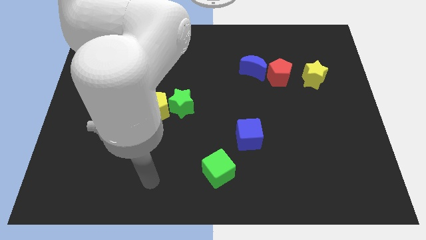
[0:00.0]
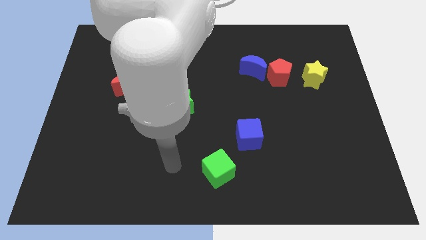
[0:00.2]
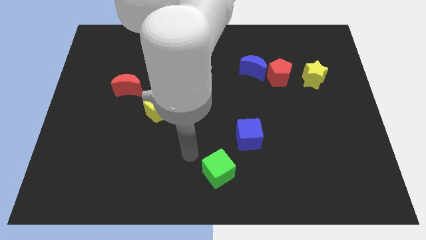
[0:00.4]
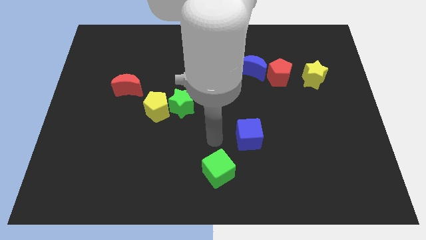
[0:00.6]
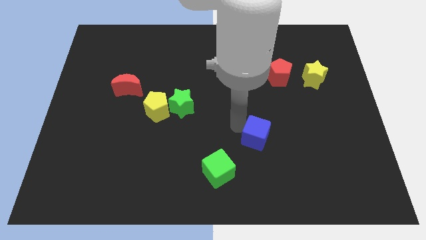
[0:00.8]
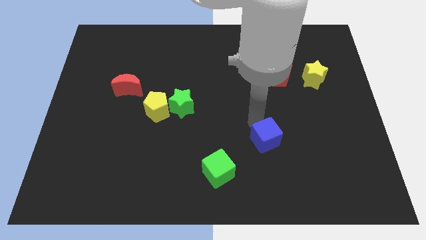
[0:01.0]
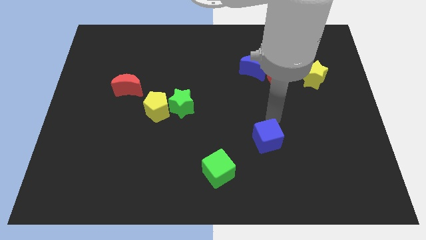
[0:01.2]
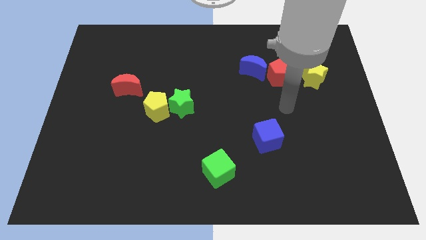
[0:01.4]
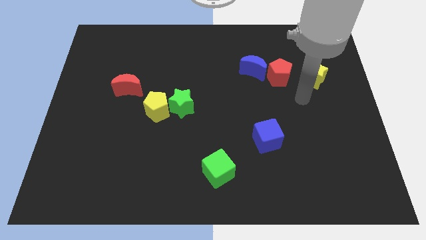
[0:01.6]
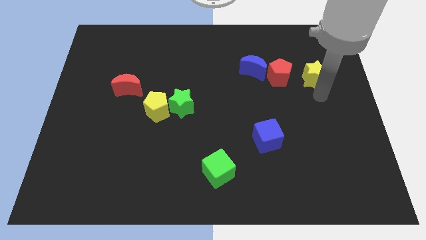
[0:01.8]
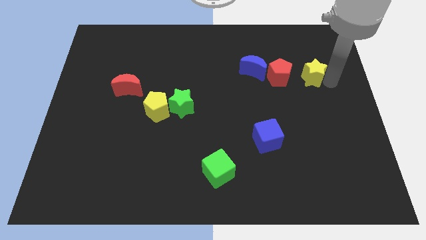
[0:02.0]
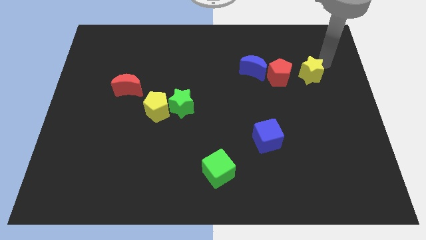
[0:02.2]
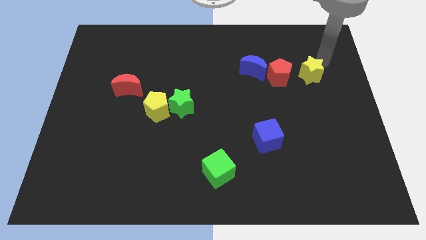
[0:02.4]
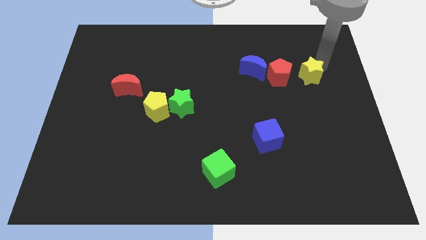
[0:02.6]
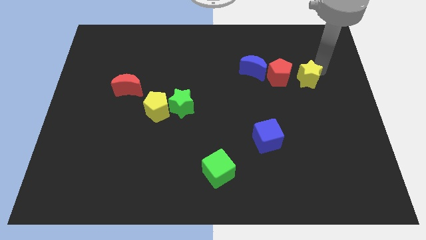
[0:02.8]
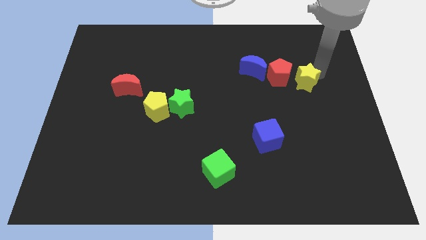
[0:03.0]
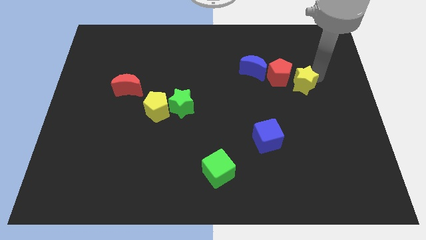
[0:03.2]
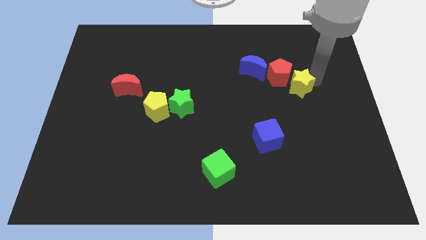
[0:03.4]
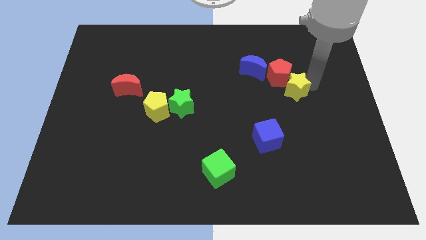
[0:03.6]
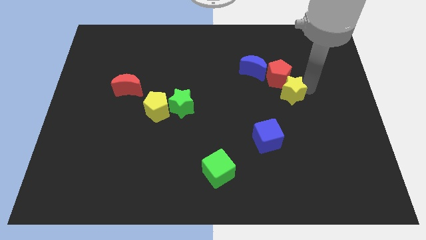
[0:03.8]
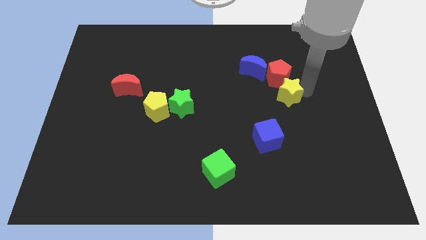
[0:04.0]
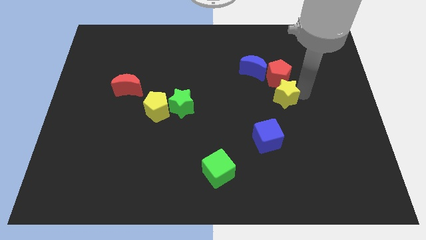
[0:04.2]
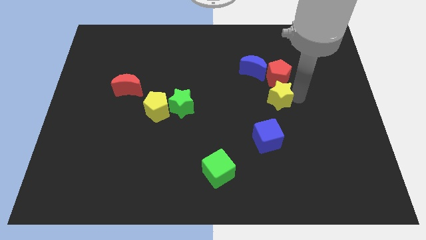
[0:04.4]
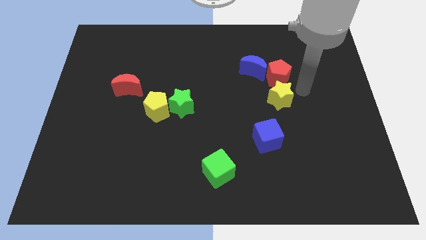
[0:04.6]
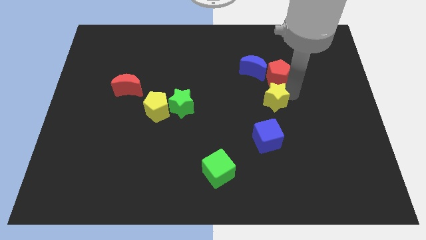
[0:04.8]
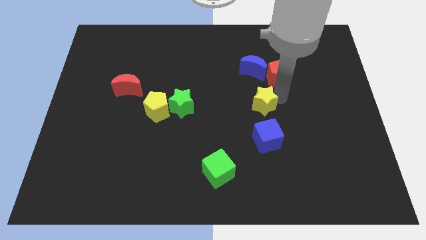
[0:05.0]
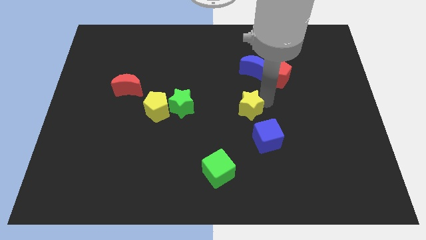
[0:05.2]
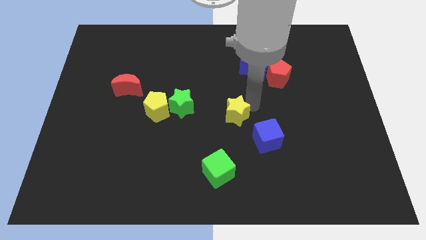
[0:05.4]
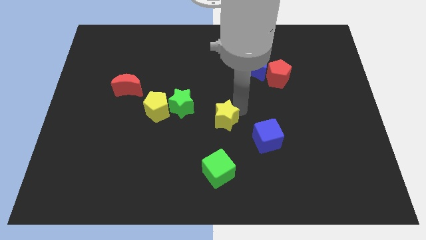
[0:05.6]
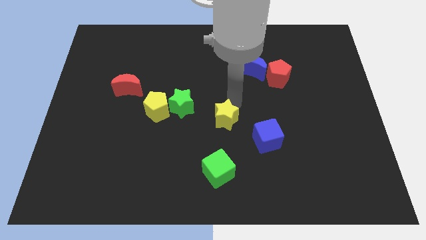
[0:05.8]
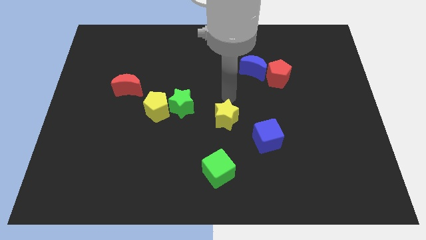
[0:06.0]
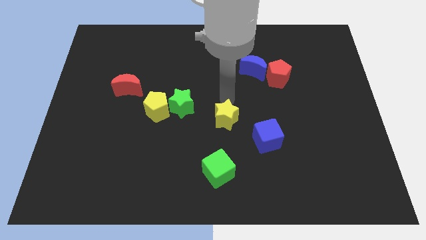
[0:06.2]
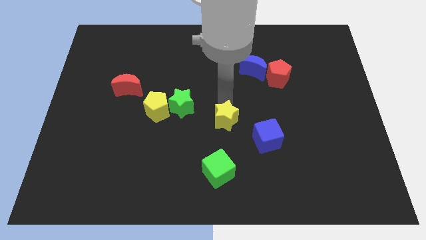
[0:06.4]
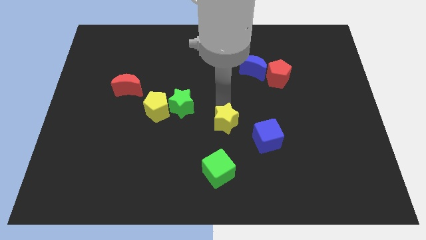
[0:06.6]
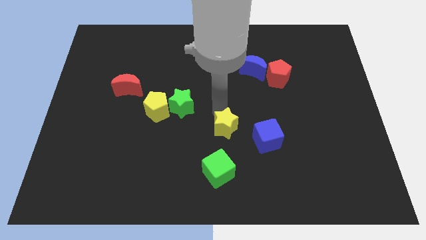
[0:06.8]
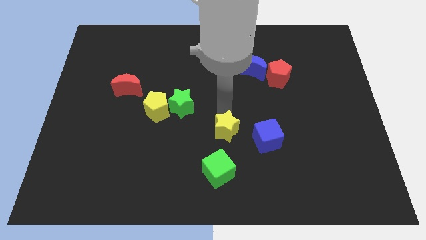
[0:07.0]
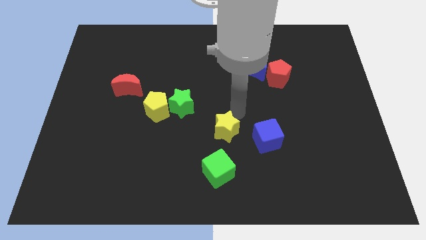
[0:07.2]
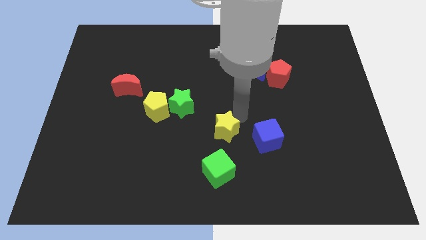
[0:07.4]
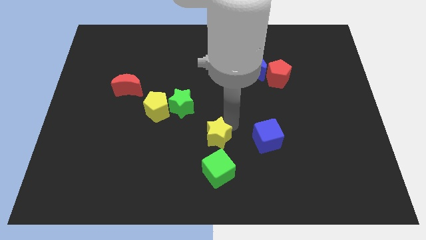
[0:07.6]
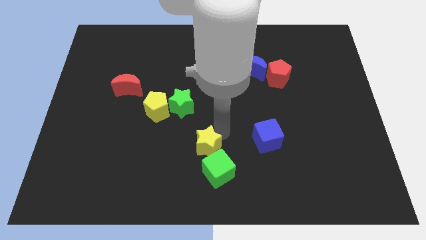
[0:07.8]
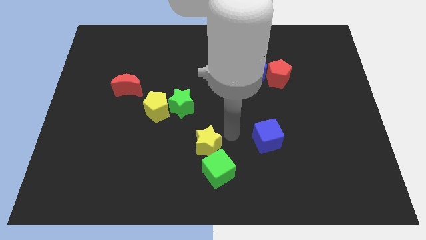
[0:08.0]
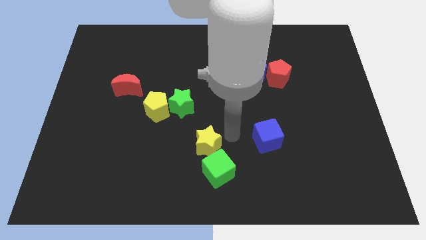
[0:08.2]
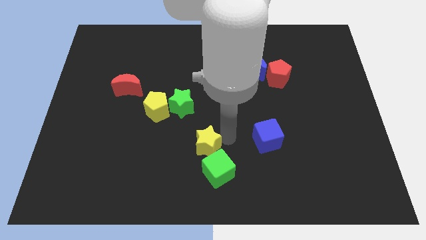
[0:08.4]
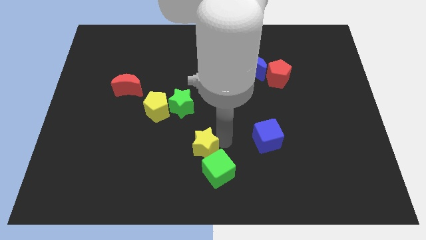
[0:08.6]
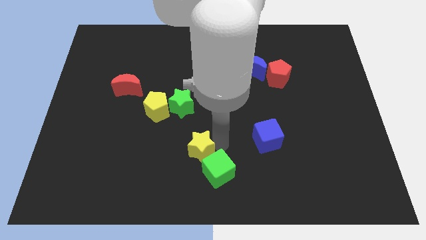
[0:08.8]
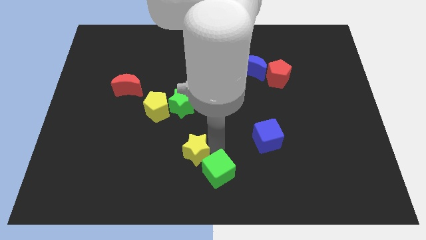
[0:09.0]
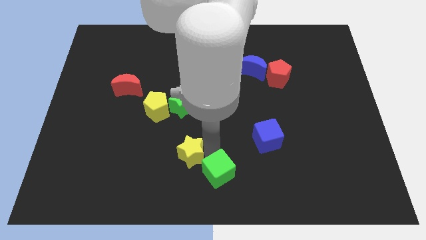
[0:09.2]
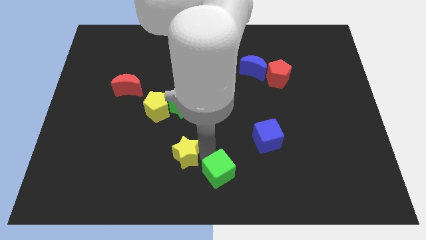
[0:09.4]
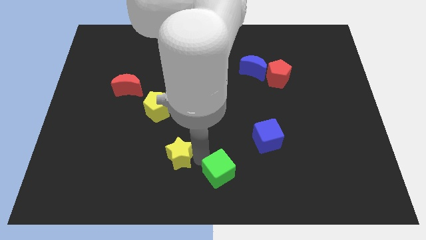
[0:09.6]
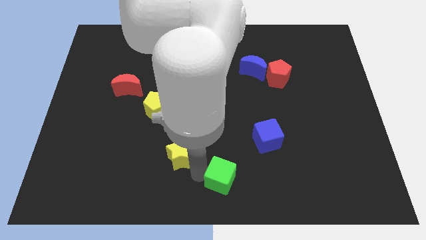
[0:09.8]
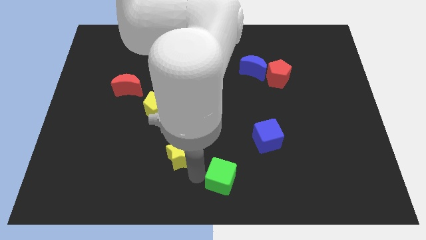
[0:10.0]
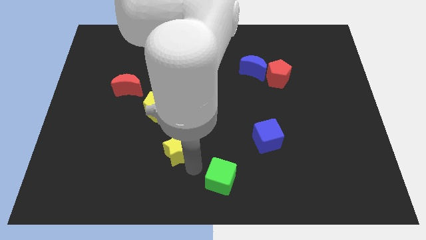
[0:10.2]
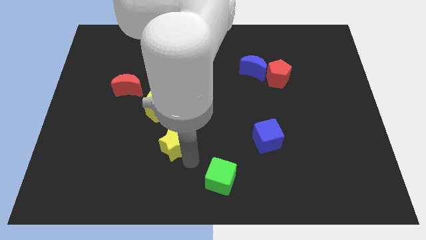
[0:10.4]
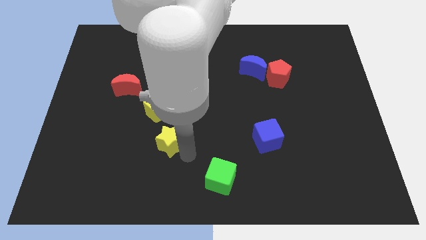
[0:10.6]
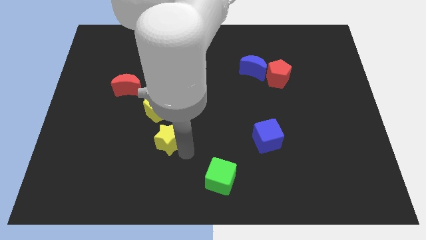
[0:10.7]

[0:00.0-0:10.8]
put the yellow star diagonally down and to the left of the green star
